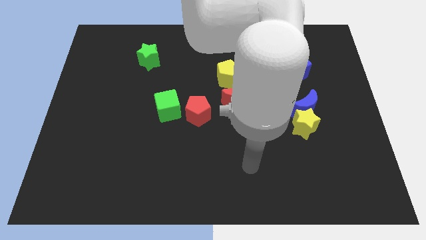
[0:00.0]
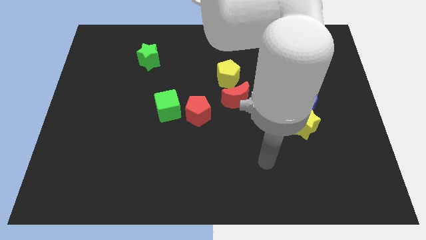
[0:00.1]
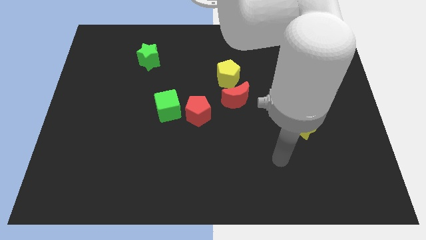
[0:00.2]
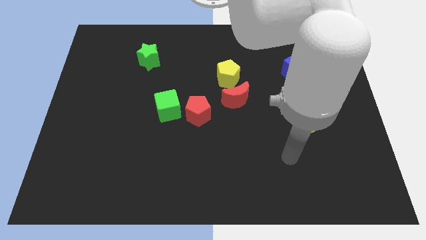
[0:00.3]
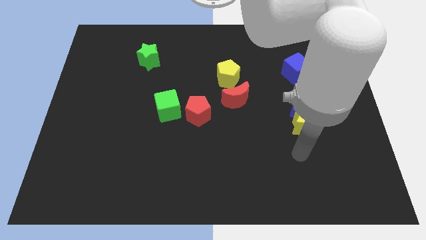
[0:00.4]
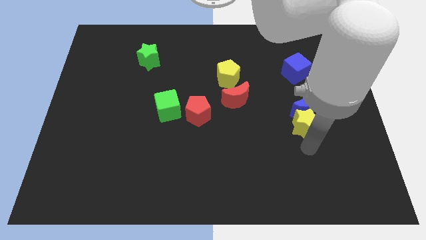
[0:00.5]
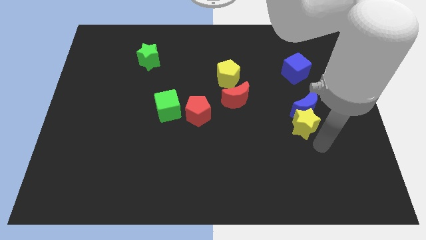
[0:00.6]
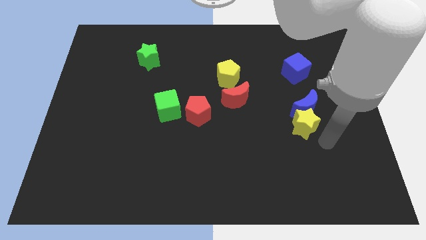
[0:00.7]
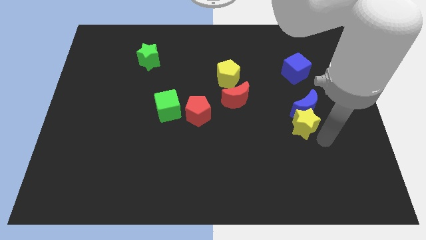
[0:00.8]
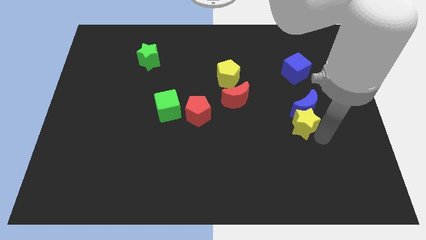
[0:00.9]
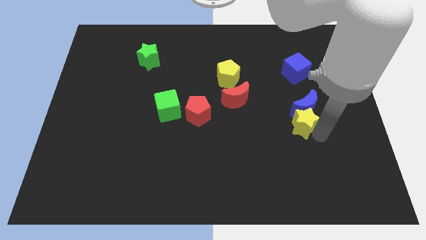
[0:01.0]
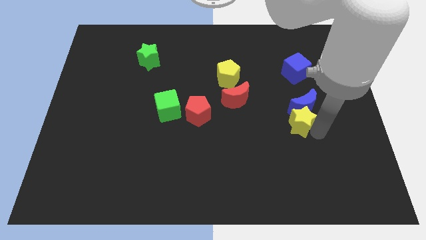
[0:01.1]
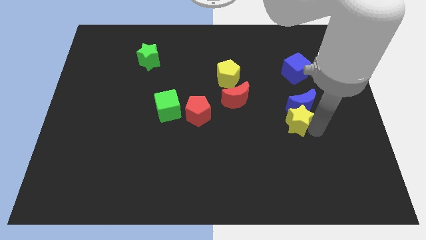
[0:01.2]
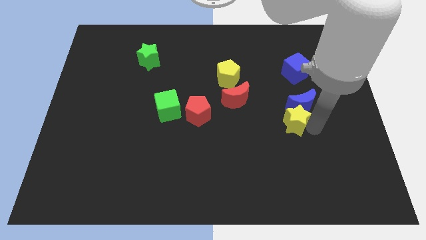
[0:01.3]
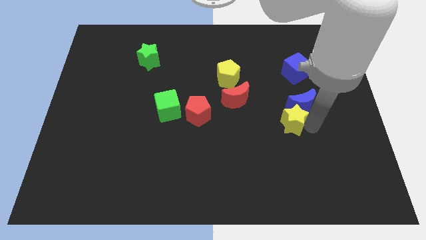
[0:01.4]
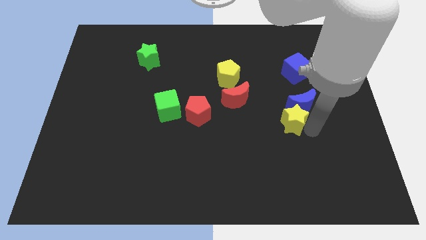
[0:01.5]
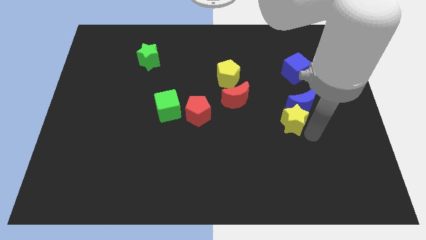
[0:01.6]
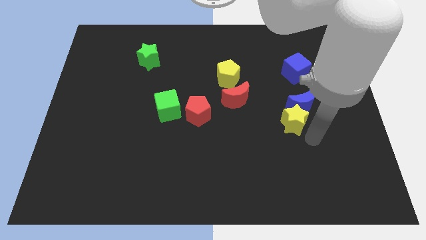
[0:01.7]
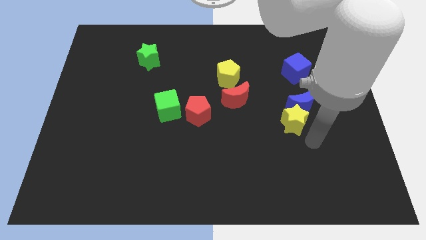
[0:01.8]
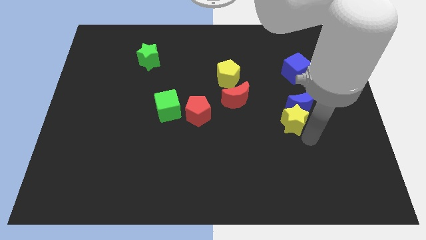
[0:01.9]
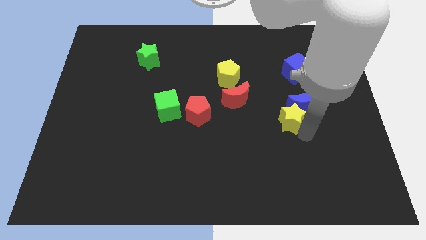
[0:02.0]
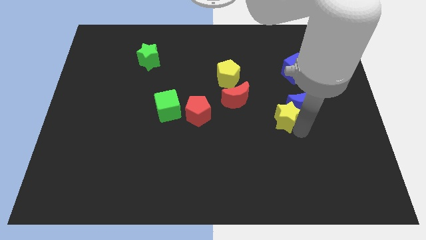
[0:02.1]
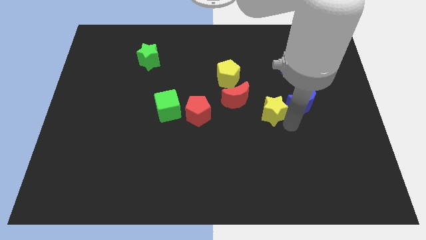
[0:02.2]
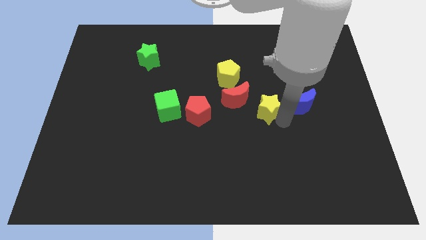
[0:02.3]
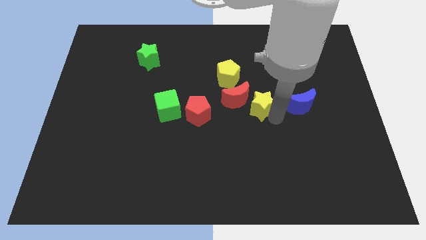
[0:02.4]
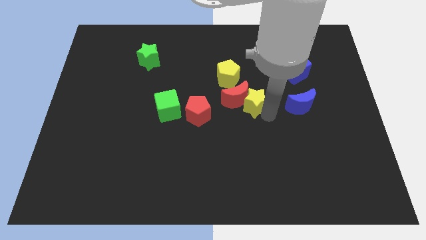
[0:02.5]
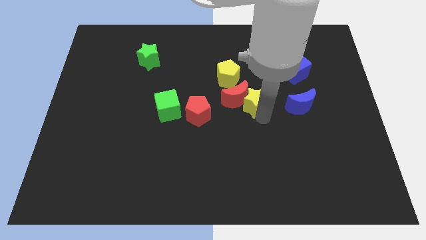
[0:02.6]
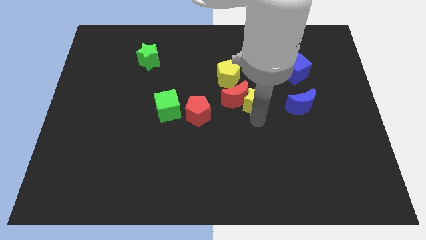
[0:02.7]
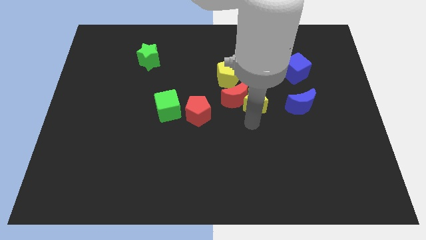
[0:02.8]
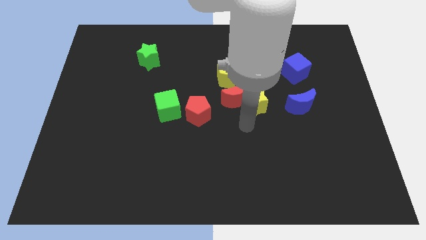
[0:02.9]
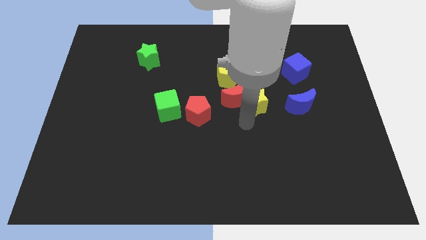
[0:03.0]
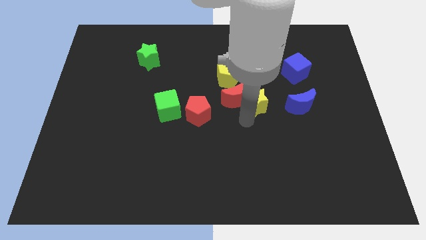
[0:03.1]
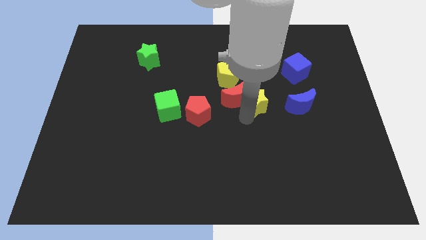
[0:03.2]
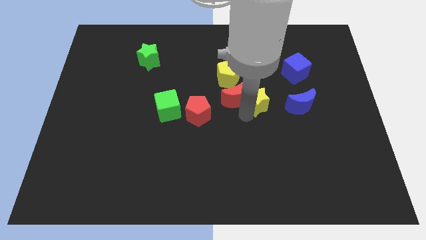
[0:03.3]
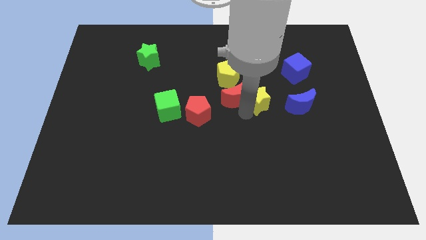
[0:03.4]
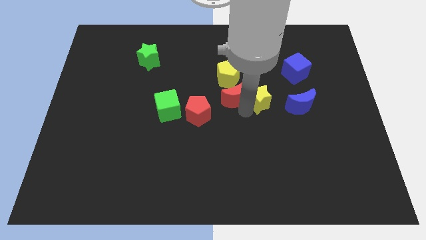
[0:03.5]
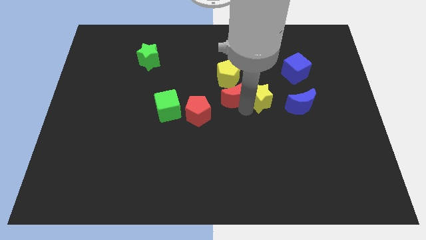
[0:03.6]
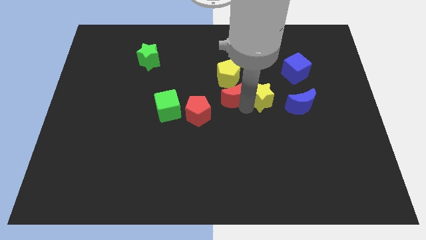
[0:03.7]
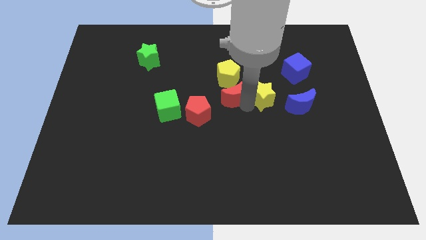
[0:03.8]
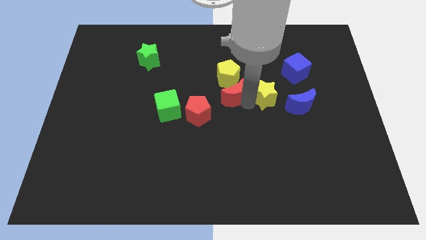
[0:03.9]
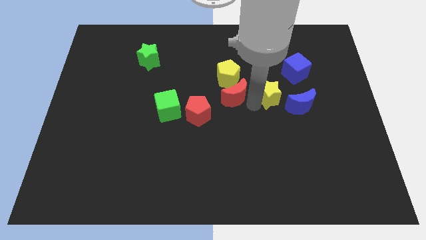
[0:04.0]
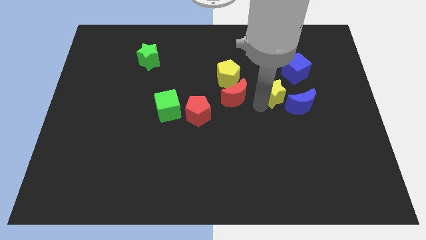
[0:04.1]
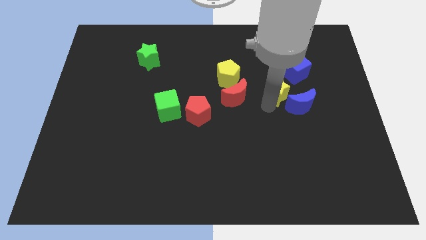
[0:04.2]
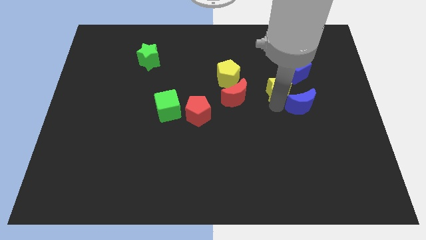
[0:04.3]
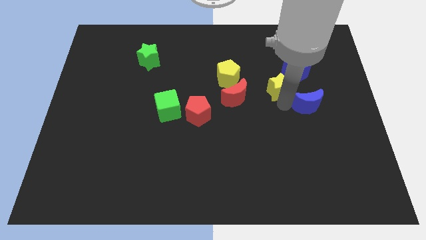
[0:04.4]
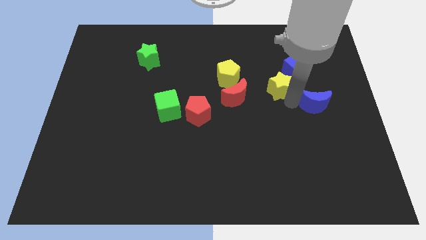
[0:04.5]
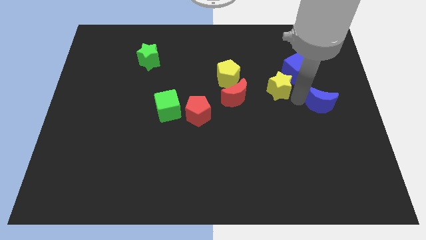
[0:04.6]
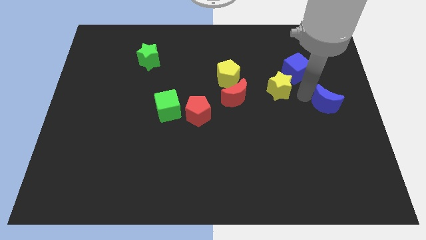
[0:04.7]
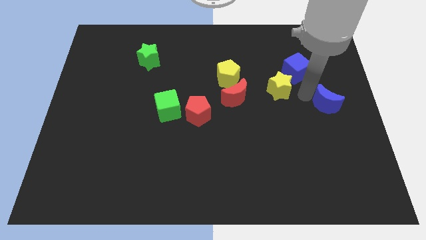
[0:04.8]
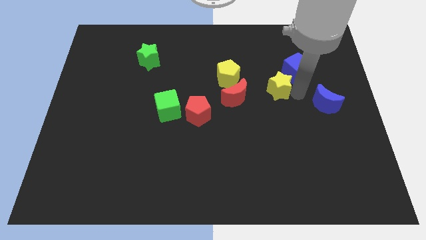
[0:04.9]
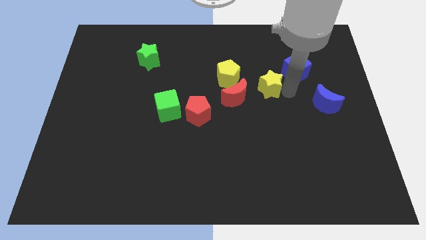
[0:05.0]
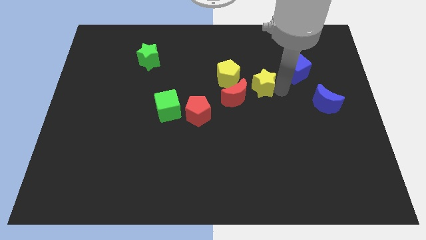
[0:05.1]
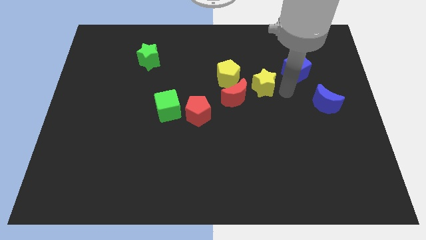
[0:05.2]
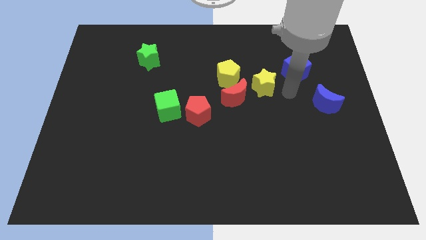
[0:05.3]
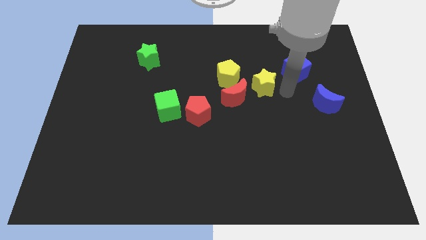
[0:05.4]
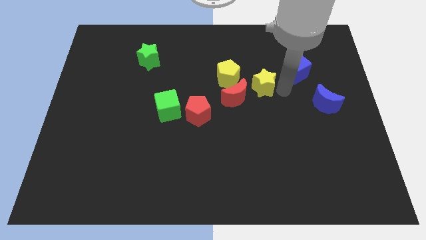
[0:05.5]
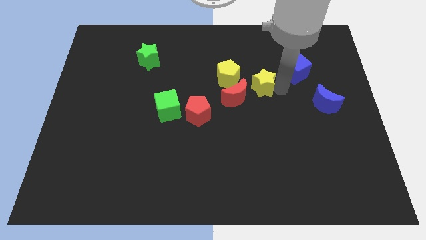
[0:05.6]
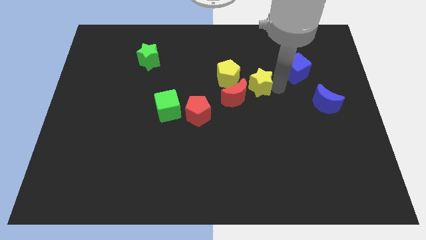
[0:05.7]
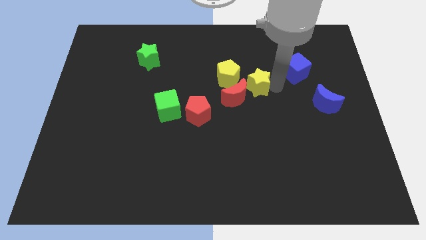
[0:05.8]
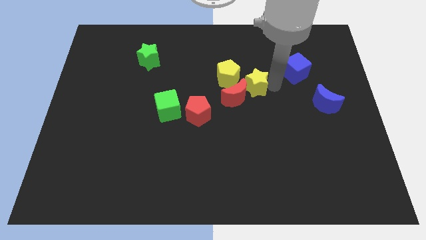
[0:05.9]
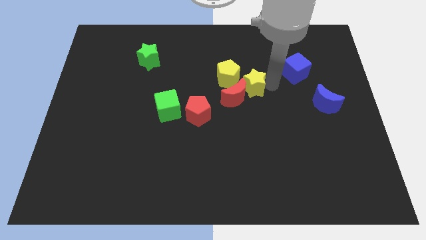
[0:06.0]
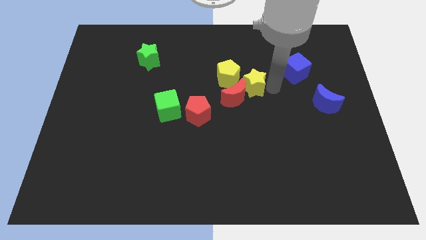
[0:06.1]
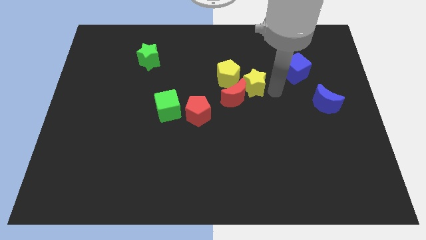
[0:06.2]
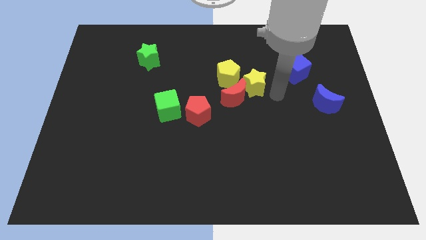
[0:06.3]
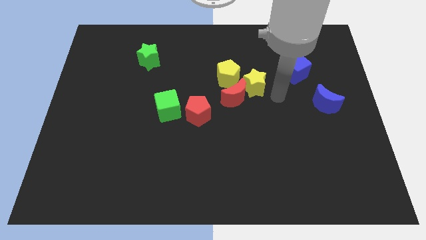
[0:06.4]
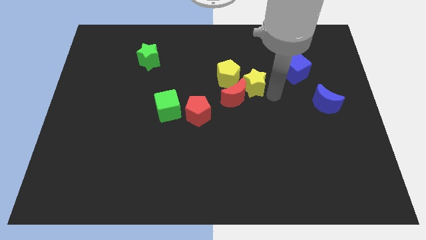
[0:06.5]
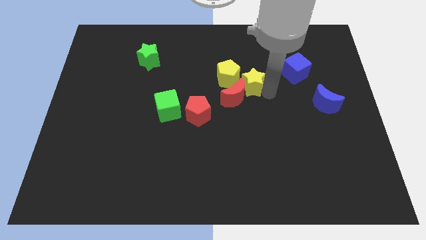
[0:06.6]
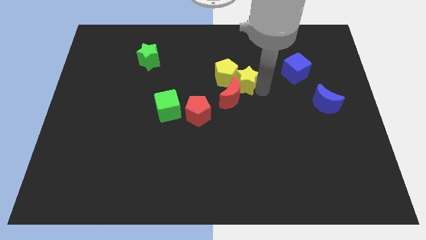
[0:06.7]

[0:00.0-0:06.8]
move the yellow star towards the yellow pentagon
